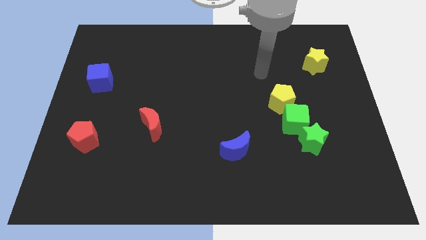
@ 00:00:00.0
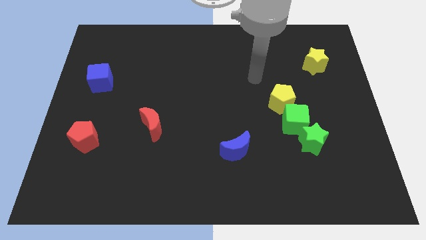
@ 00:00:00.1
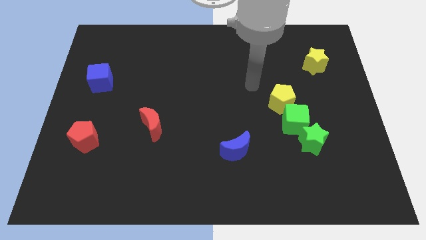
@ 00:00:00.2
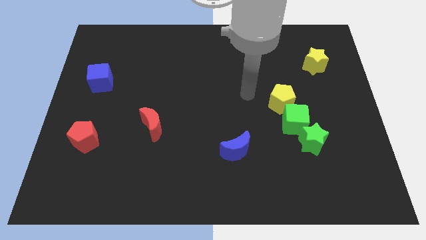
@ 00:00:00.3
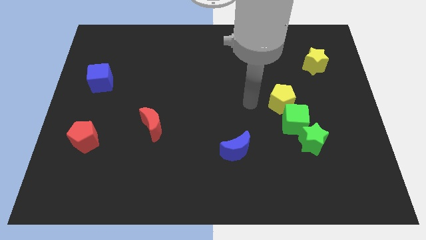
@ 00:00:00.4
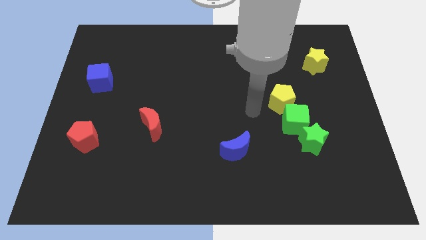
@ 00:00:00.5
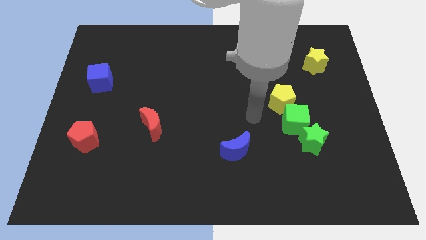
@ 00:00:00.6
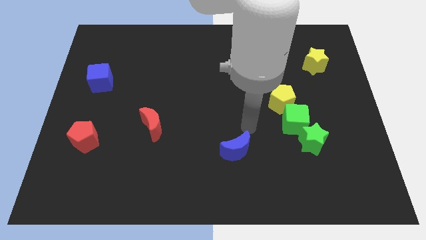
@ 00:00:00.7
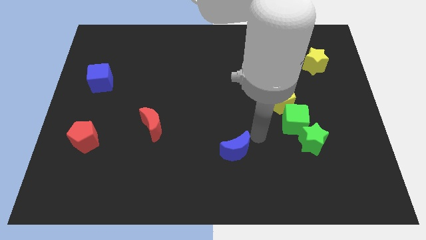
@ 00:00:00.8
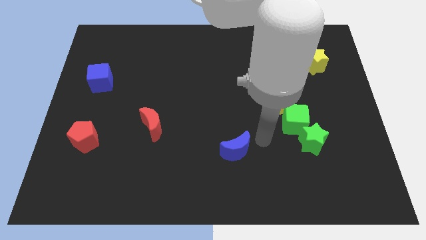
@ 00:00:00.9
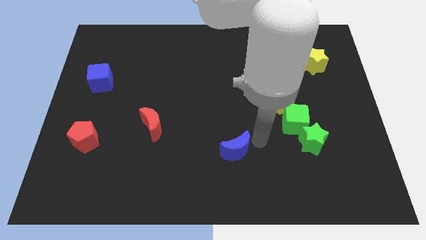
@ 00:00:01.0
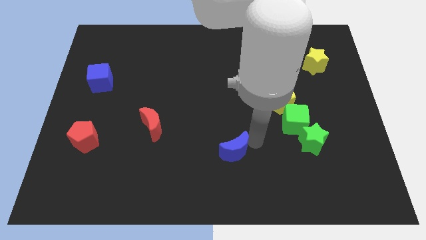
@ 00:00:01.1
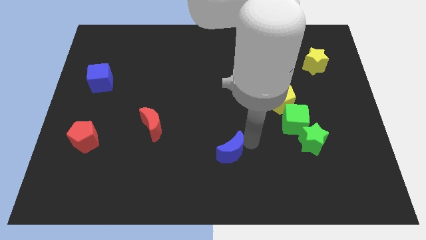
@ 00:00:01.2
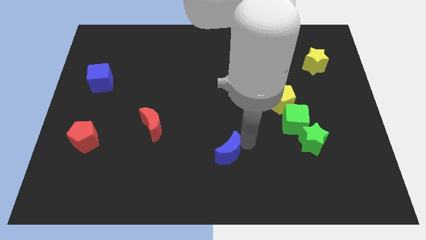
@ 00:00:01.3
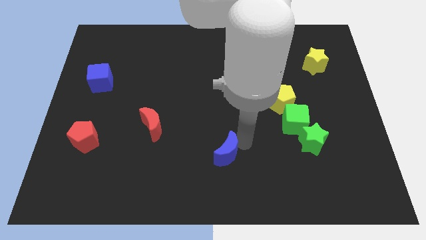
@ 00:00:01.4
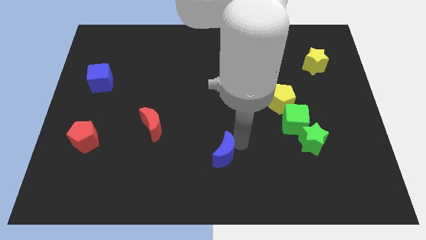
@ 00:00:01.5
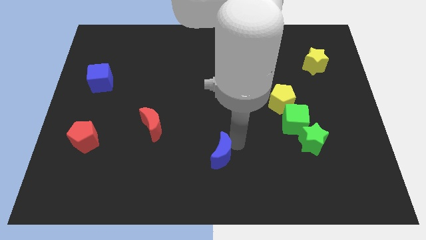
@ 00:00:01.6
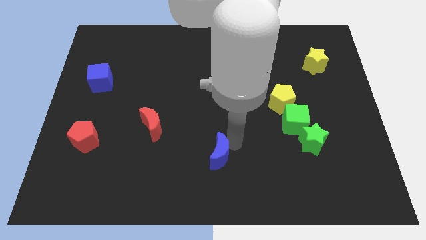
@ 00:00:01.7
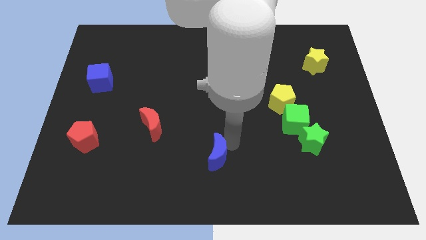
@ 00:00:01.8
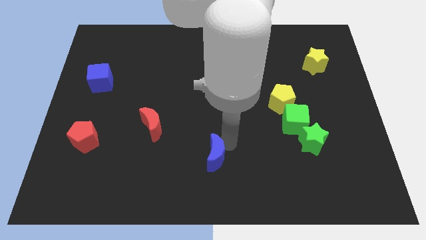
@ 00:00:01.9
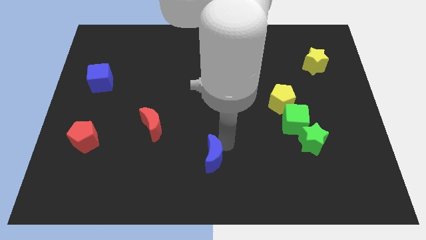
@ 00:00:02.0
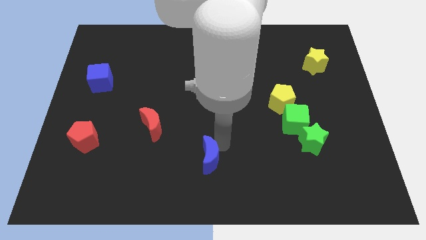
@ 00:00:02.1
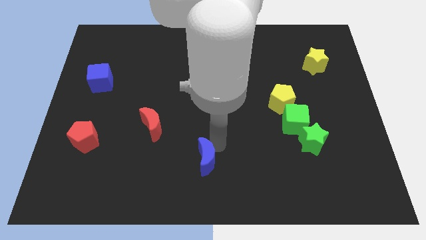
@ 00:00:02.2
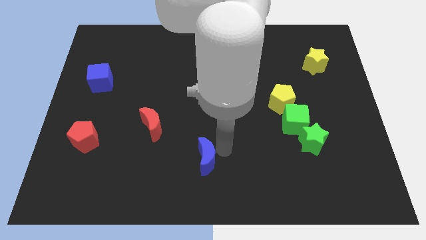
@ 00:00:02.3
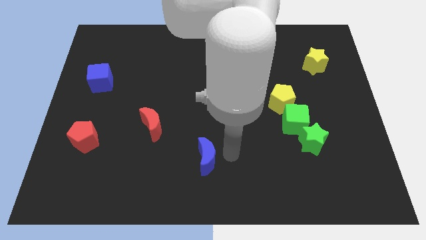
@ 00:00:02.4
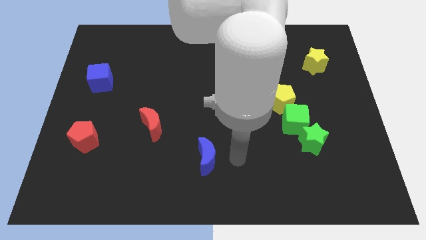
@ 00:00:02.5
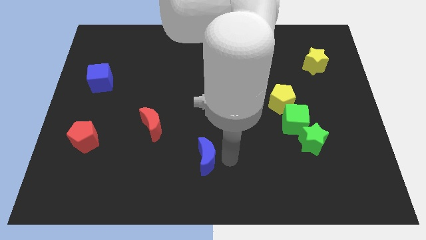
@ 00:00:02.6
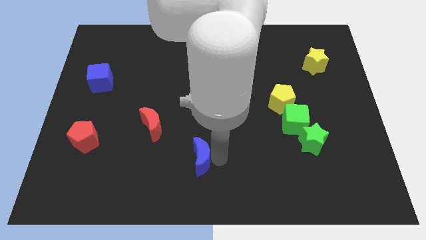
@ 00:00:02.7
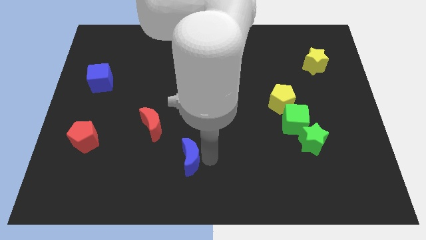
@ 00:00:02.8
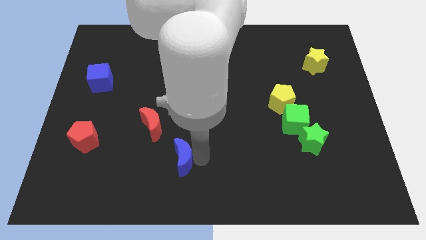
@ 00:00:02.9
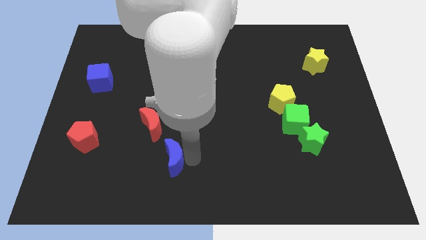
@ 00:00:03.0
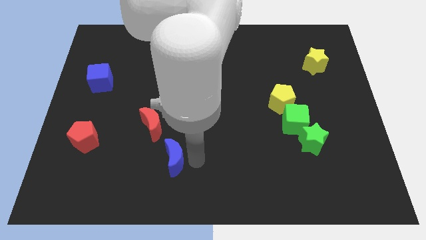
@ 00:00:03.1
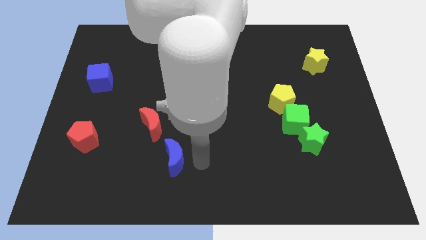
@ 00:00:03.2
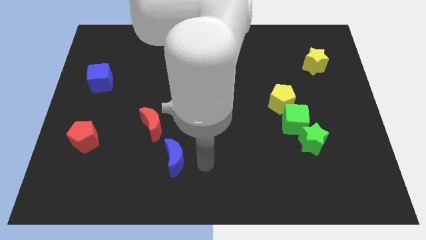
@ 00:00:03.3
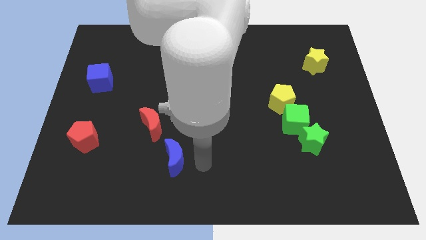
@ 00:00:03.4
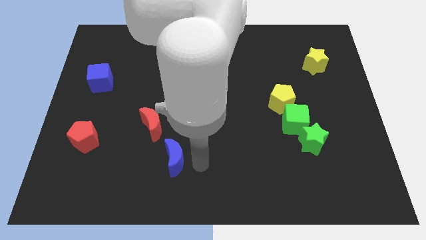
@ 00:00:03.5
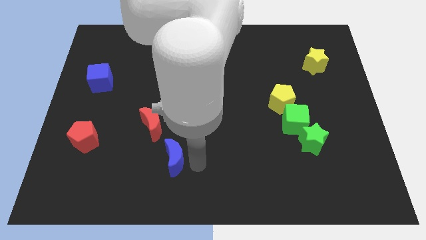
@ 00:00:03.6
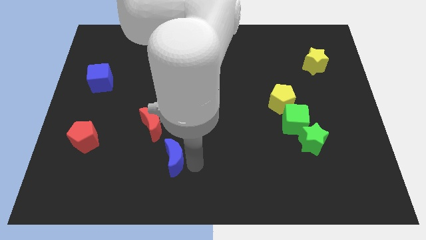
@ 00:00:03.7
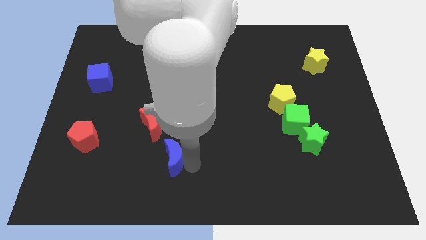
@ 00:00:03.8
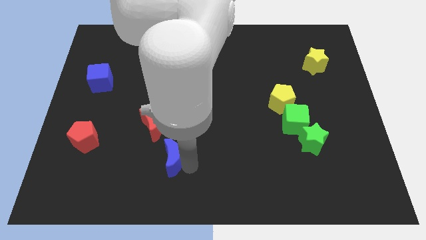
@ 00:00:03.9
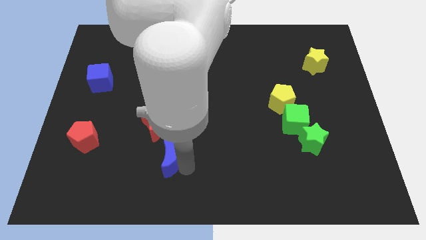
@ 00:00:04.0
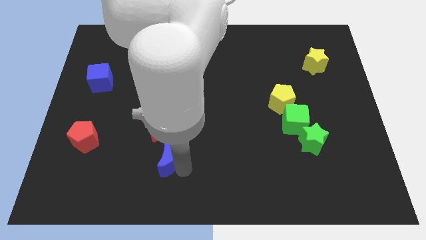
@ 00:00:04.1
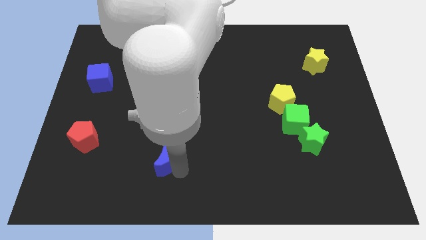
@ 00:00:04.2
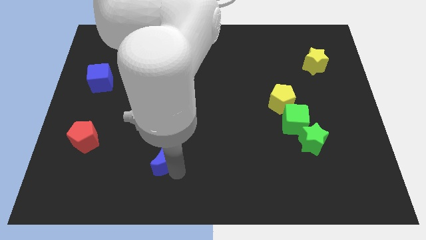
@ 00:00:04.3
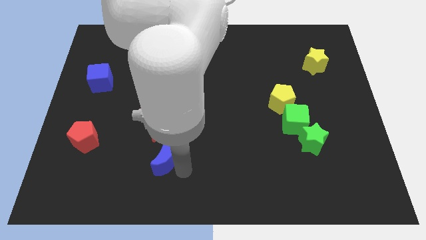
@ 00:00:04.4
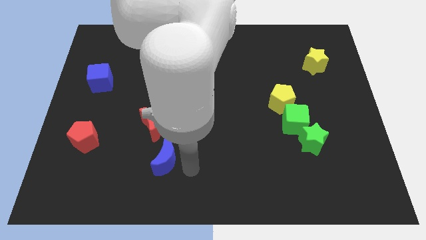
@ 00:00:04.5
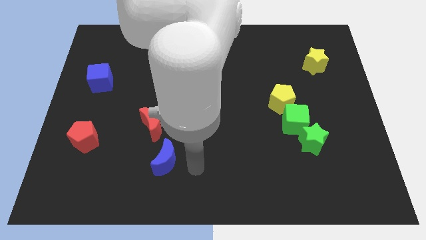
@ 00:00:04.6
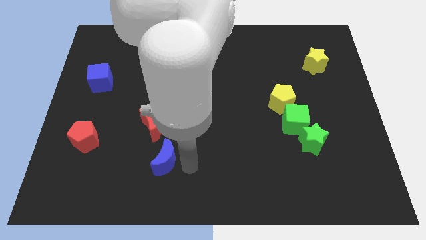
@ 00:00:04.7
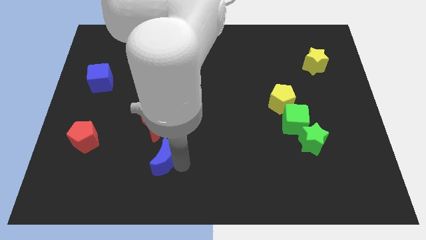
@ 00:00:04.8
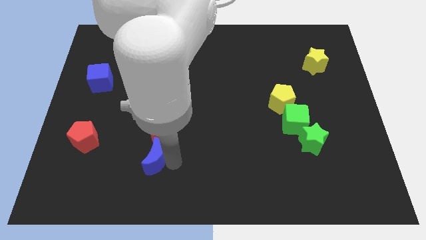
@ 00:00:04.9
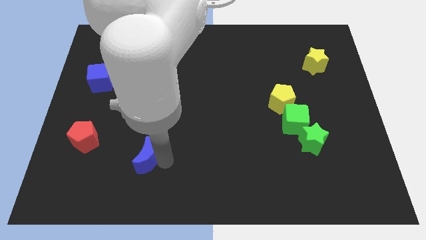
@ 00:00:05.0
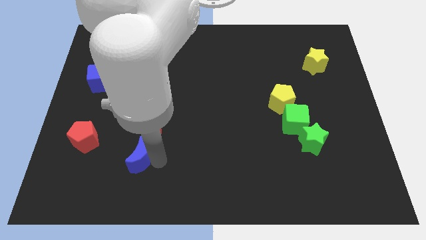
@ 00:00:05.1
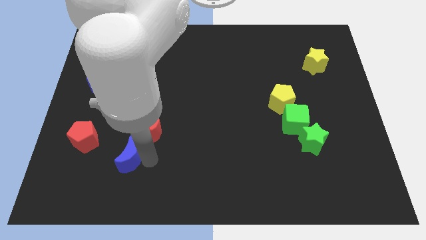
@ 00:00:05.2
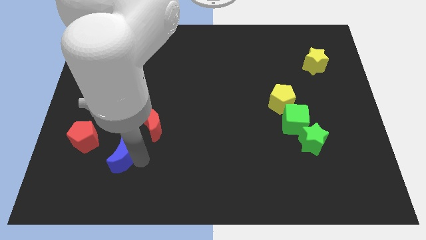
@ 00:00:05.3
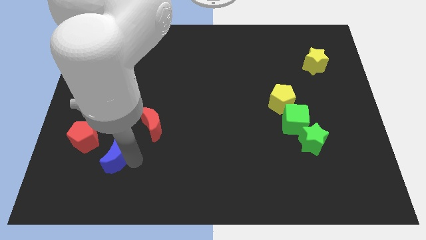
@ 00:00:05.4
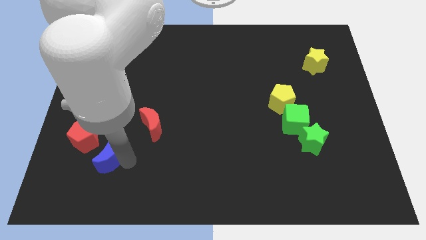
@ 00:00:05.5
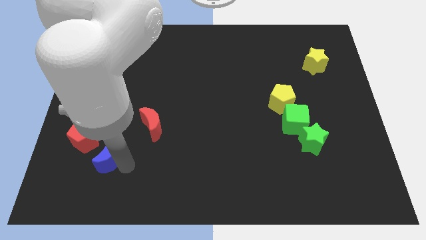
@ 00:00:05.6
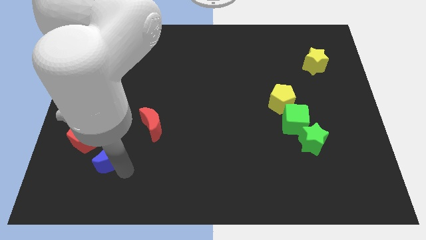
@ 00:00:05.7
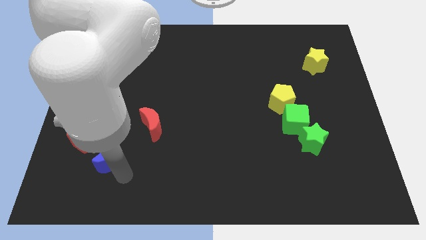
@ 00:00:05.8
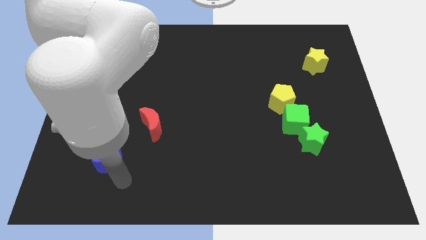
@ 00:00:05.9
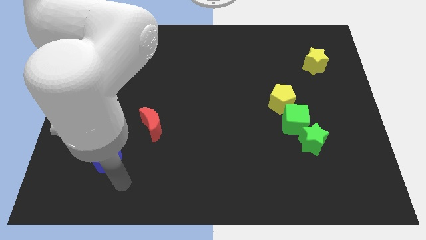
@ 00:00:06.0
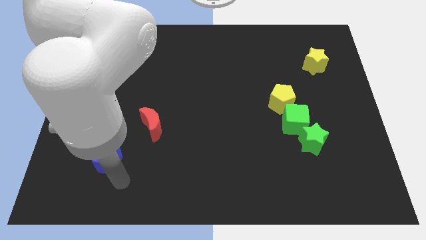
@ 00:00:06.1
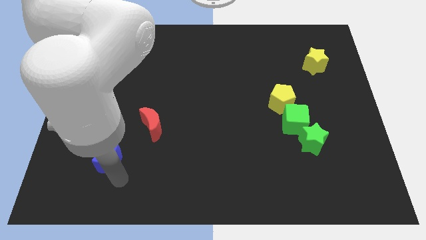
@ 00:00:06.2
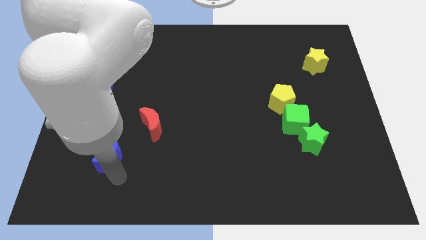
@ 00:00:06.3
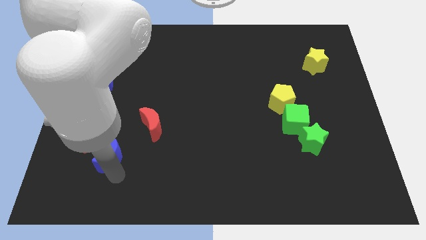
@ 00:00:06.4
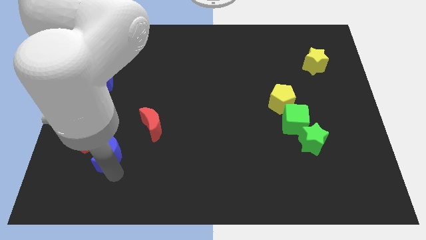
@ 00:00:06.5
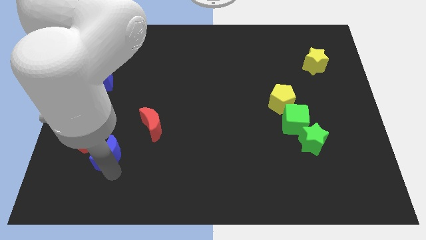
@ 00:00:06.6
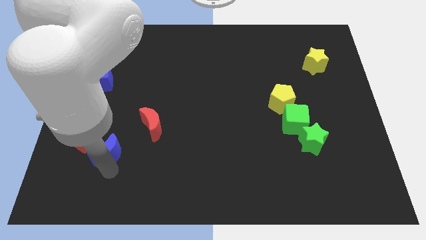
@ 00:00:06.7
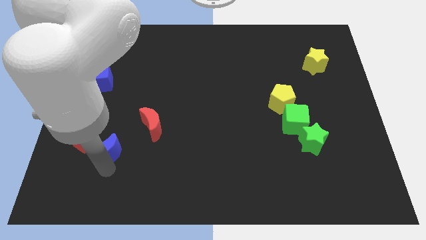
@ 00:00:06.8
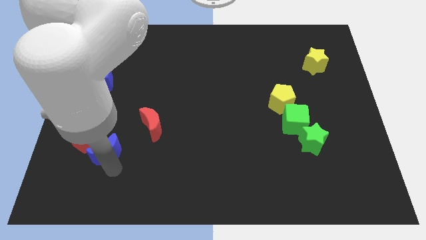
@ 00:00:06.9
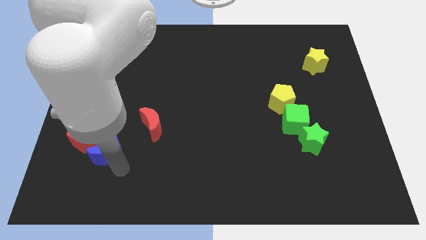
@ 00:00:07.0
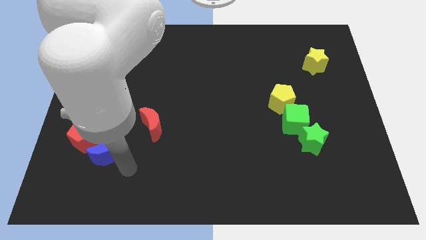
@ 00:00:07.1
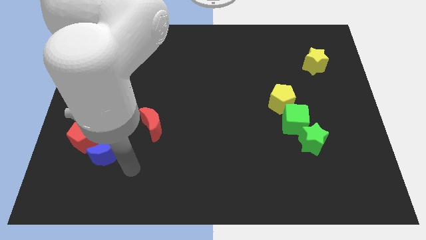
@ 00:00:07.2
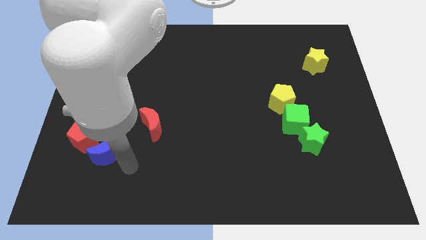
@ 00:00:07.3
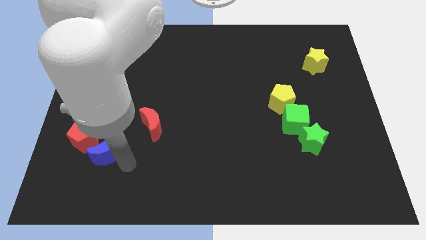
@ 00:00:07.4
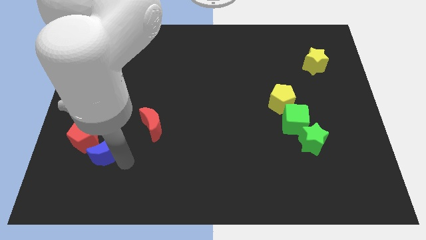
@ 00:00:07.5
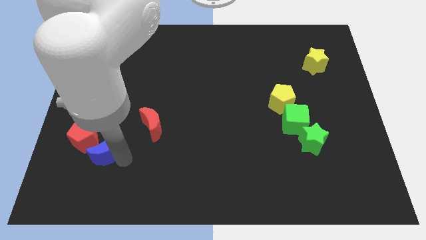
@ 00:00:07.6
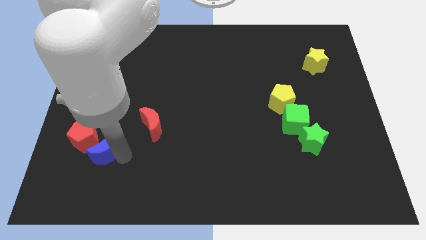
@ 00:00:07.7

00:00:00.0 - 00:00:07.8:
slide the blue moon next to the red pentagon
